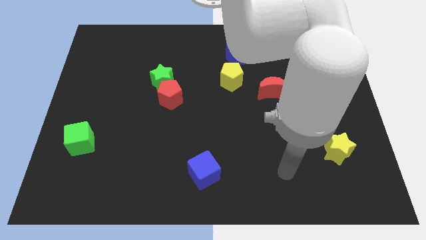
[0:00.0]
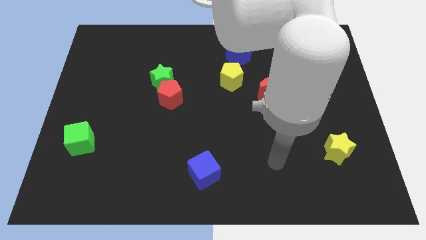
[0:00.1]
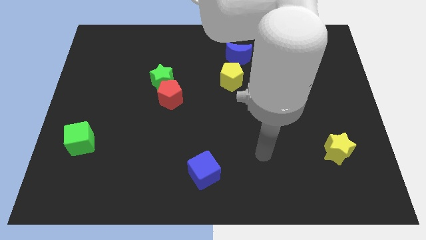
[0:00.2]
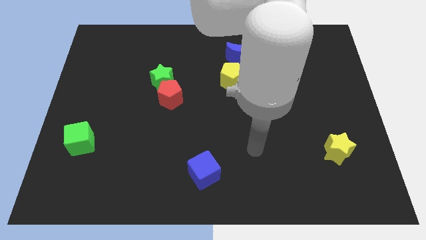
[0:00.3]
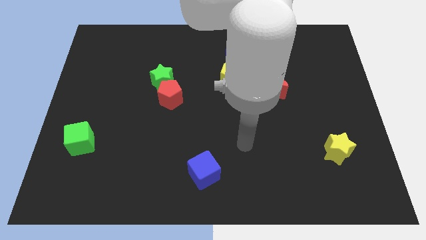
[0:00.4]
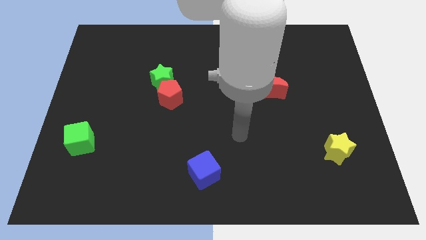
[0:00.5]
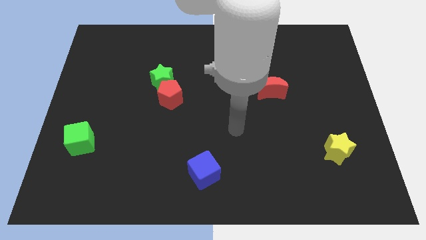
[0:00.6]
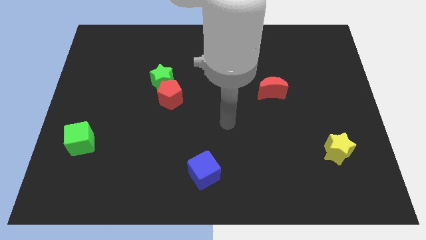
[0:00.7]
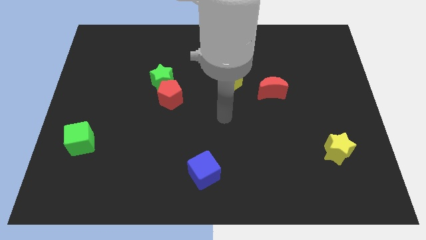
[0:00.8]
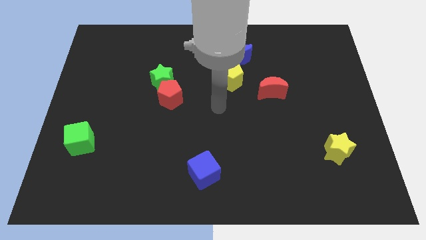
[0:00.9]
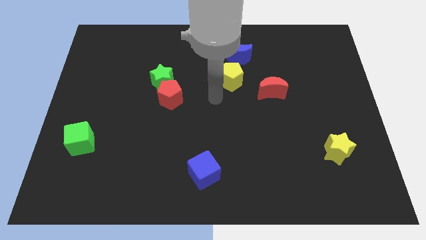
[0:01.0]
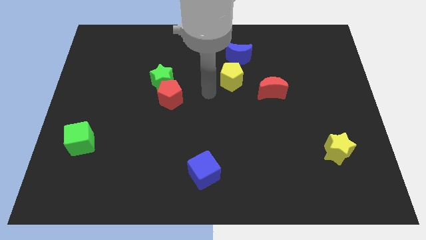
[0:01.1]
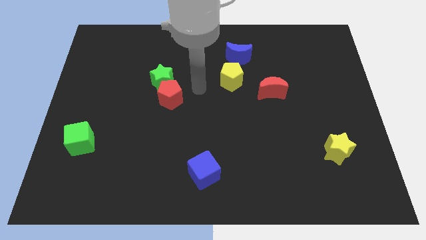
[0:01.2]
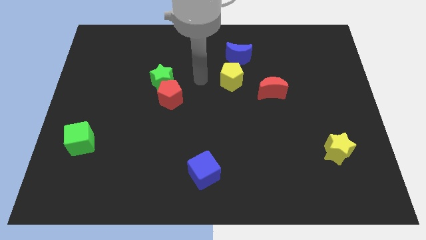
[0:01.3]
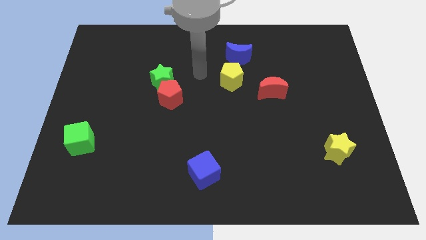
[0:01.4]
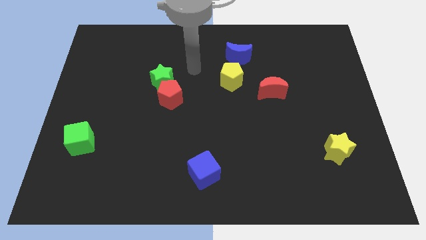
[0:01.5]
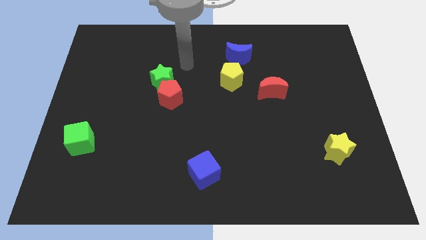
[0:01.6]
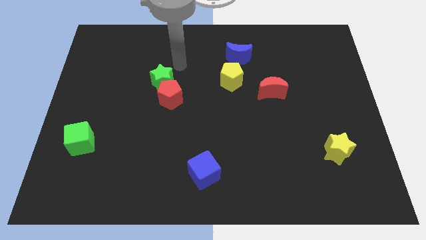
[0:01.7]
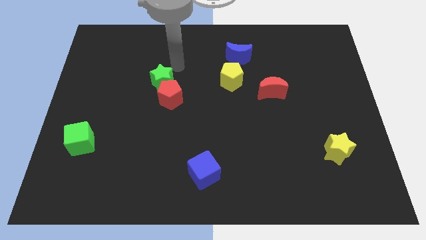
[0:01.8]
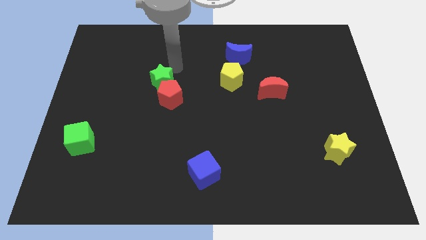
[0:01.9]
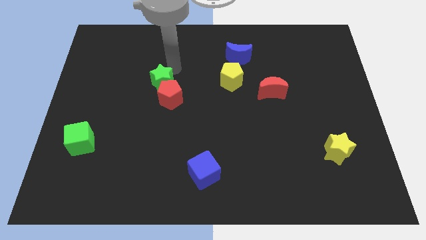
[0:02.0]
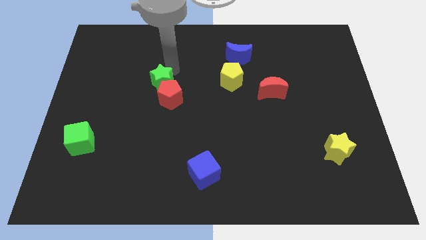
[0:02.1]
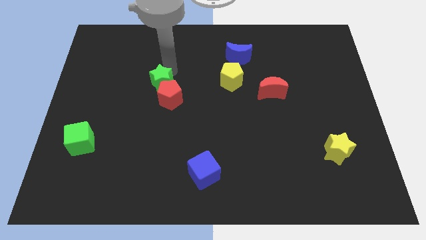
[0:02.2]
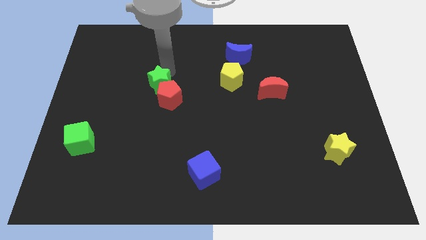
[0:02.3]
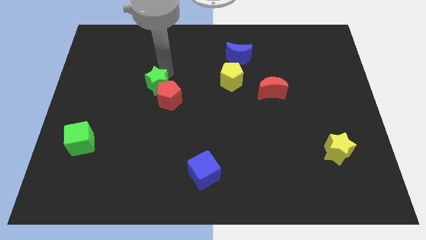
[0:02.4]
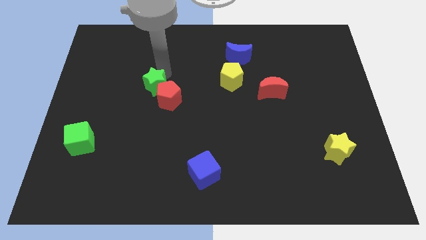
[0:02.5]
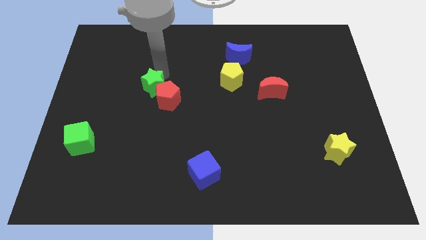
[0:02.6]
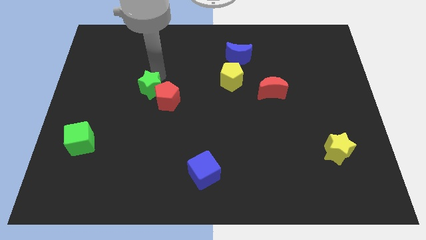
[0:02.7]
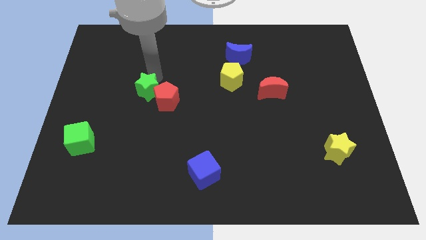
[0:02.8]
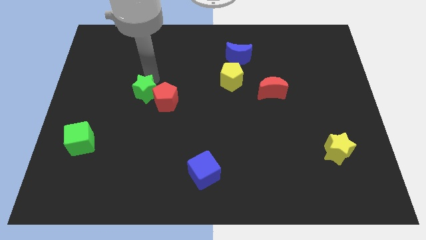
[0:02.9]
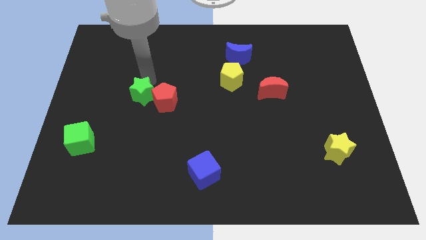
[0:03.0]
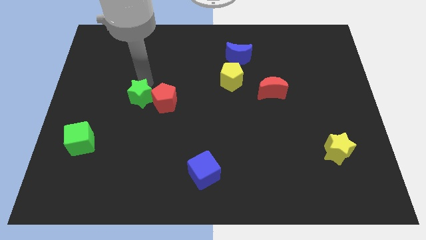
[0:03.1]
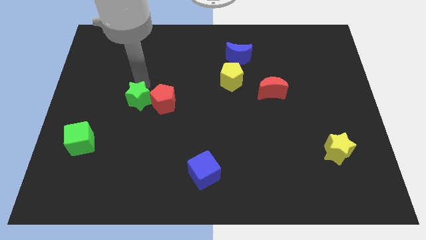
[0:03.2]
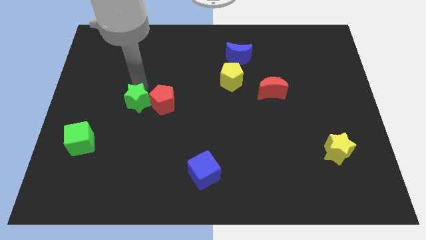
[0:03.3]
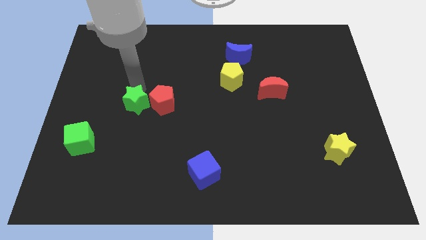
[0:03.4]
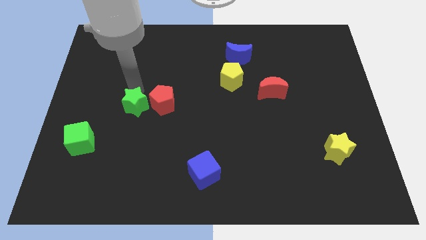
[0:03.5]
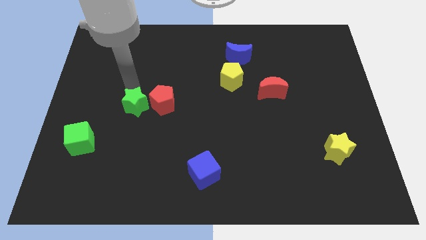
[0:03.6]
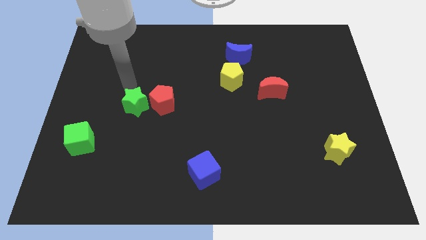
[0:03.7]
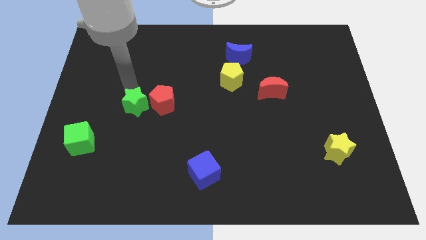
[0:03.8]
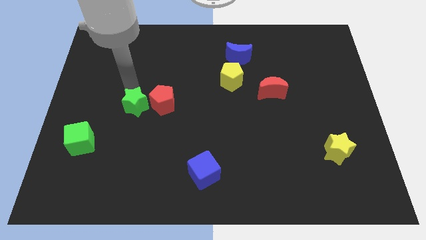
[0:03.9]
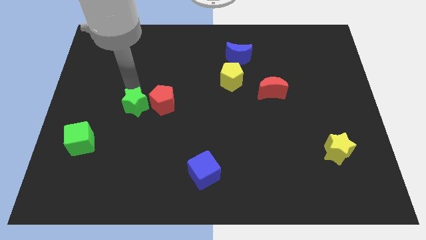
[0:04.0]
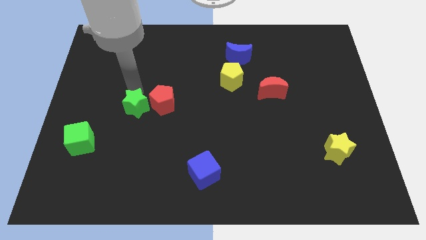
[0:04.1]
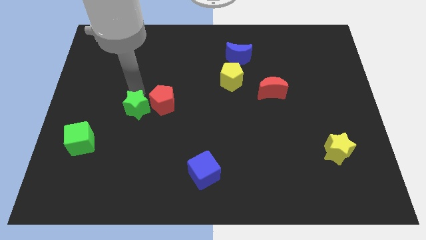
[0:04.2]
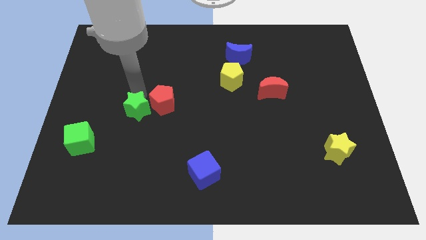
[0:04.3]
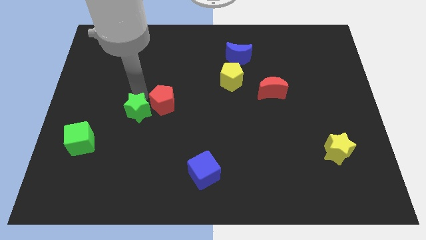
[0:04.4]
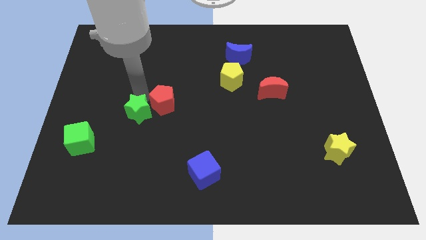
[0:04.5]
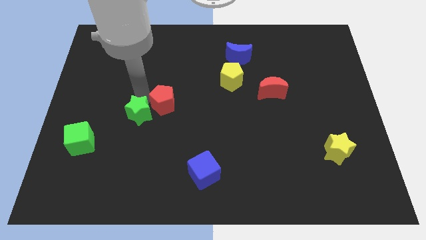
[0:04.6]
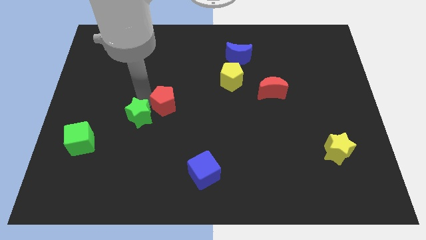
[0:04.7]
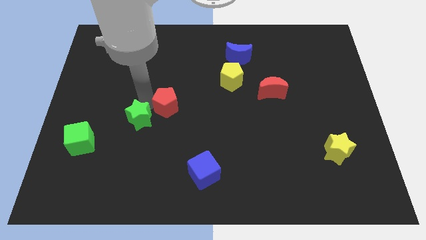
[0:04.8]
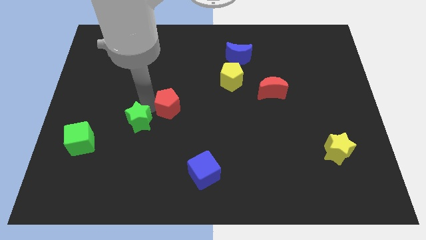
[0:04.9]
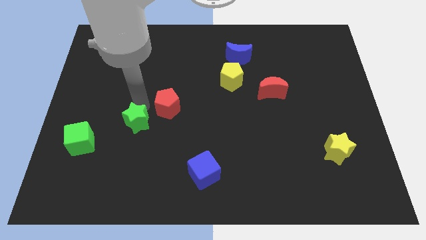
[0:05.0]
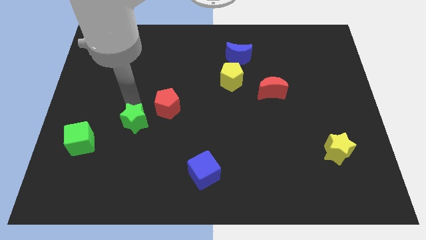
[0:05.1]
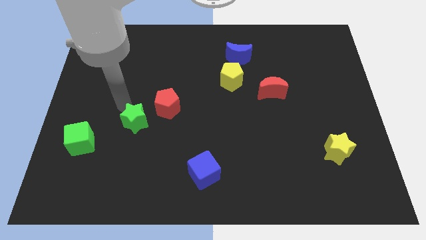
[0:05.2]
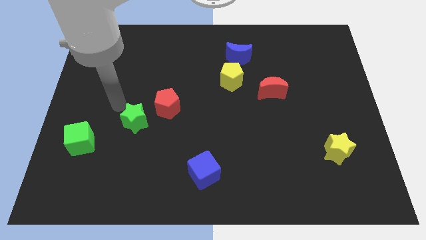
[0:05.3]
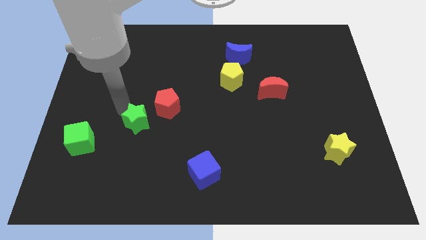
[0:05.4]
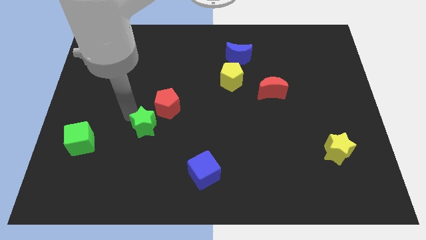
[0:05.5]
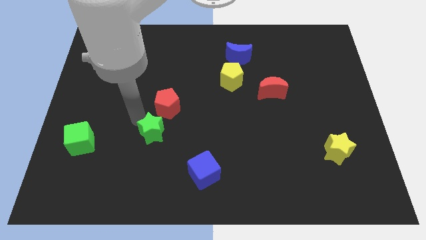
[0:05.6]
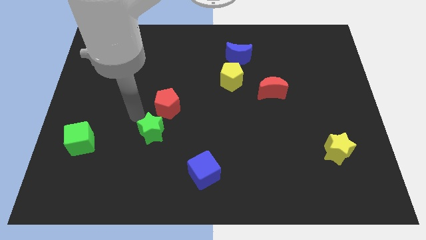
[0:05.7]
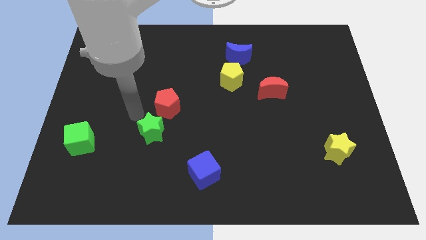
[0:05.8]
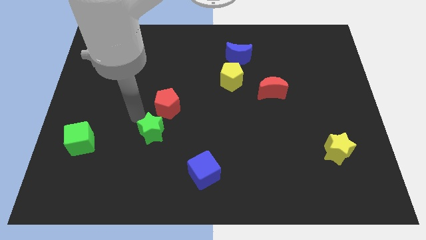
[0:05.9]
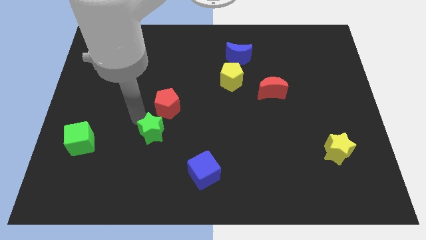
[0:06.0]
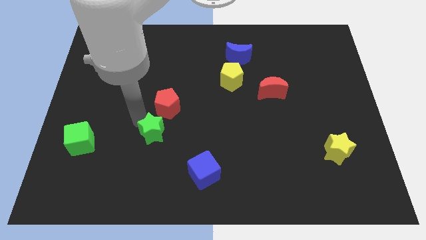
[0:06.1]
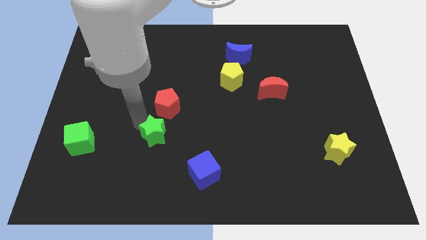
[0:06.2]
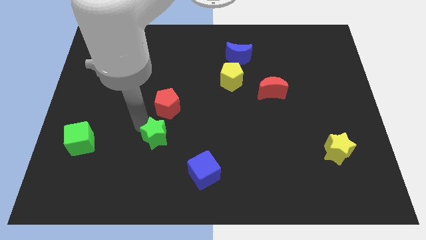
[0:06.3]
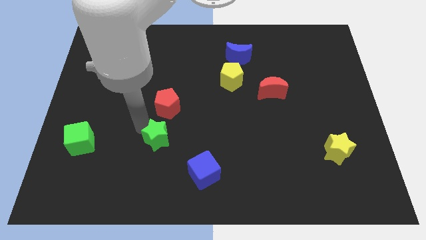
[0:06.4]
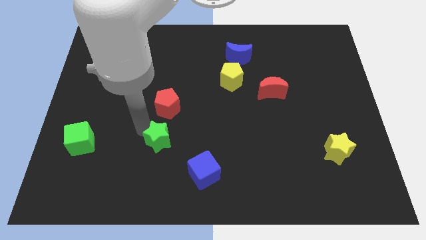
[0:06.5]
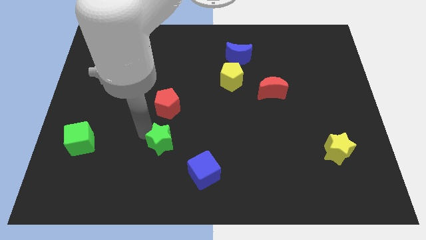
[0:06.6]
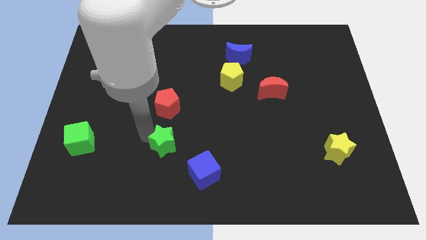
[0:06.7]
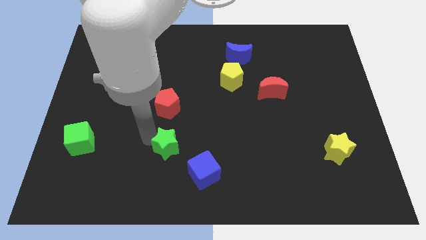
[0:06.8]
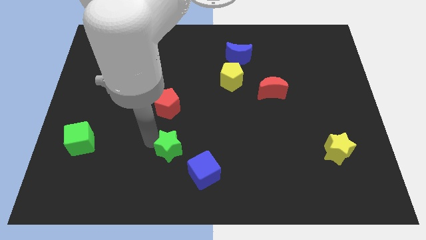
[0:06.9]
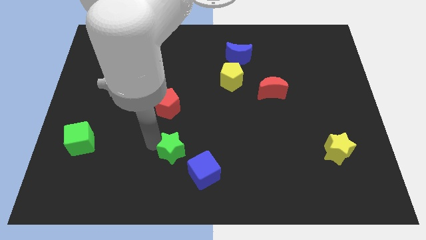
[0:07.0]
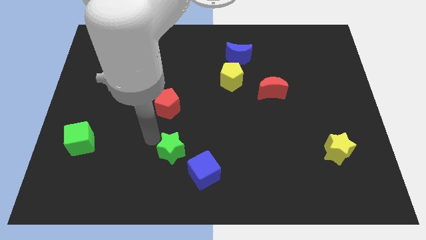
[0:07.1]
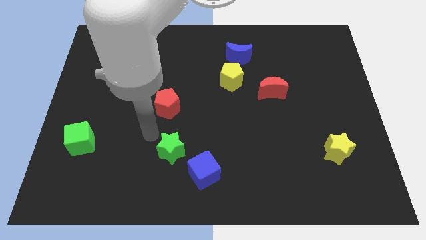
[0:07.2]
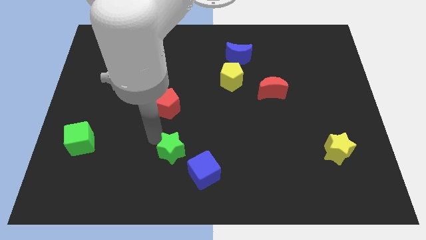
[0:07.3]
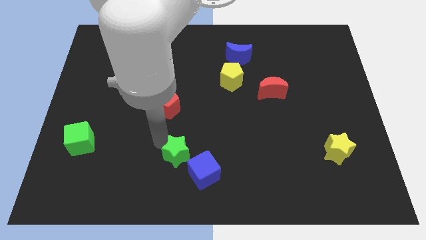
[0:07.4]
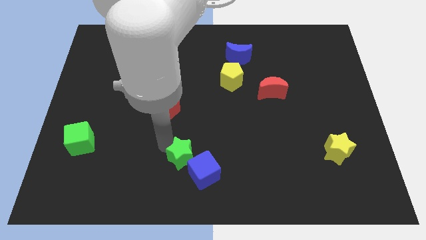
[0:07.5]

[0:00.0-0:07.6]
move the green star to the blue cube

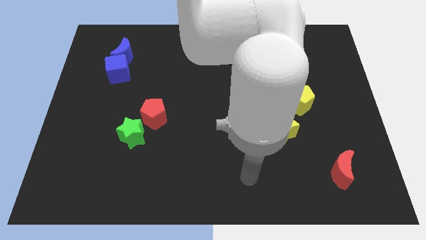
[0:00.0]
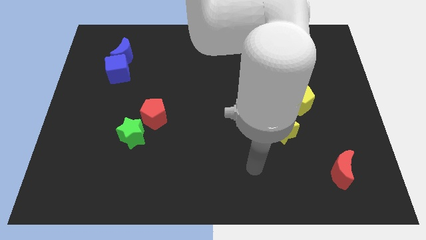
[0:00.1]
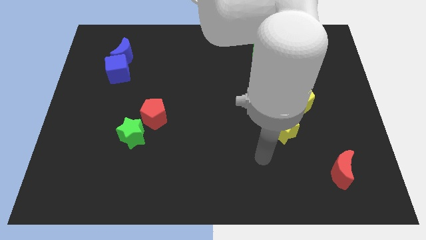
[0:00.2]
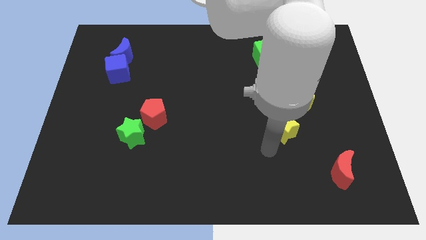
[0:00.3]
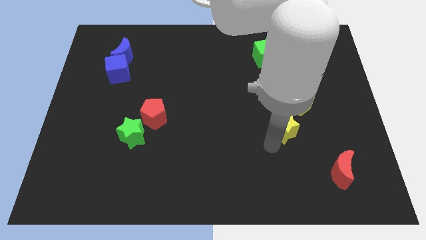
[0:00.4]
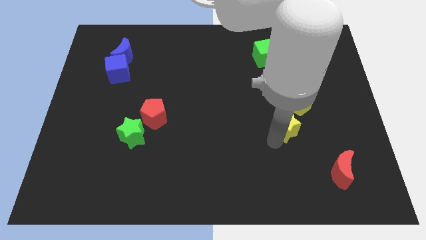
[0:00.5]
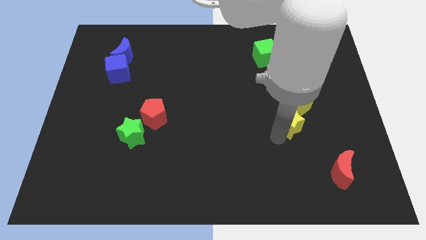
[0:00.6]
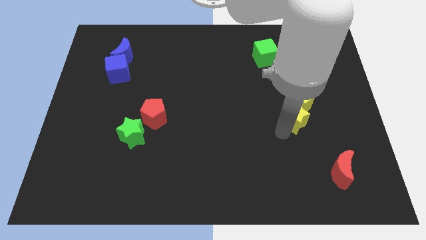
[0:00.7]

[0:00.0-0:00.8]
move the yellow star towards the yellow pentagon
